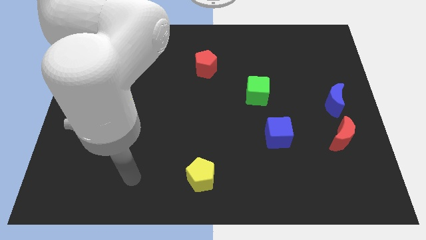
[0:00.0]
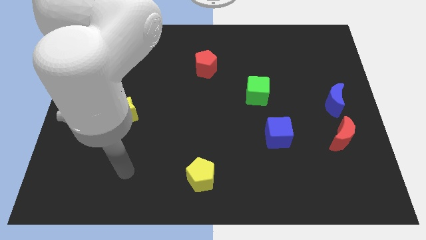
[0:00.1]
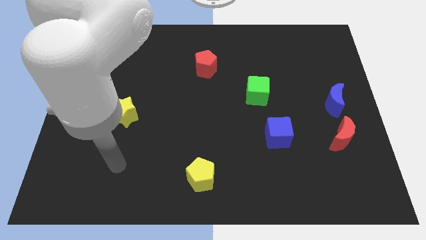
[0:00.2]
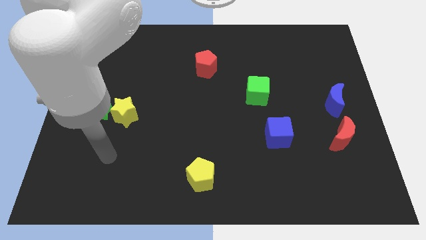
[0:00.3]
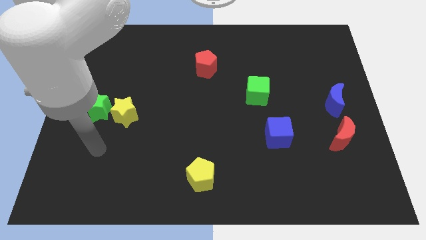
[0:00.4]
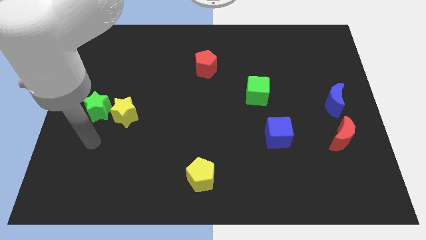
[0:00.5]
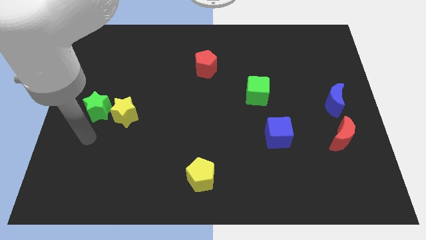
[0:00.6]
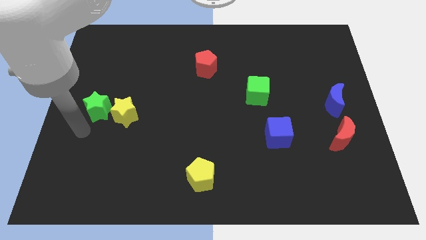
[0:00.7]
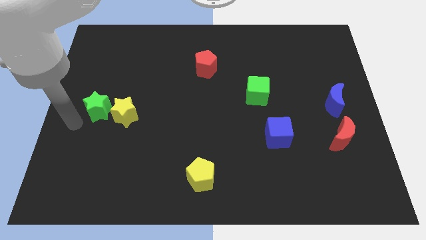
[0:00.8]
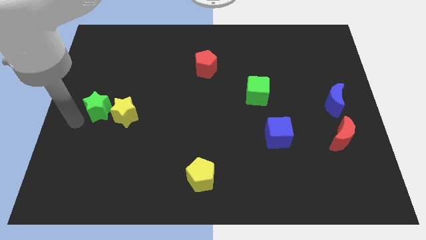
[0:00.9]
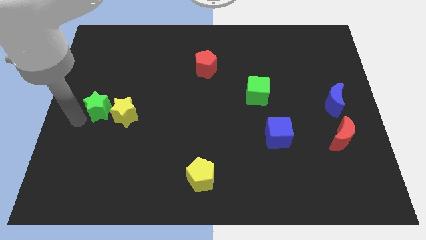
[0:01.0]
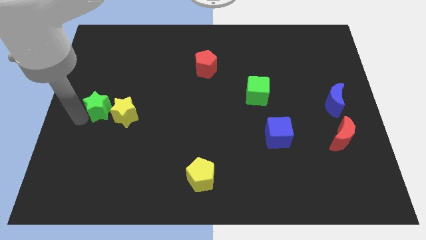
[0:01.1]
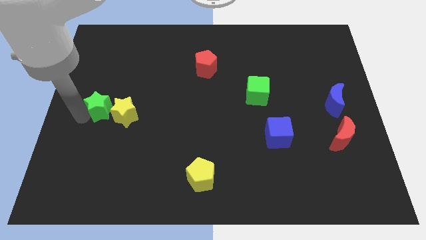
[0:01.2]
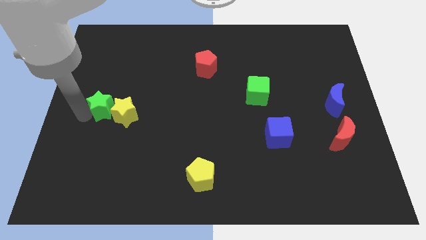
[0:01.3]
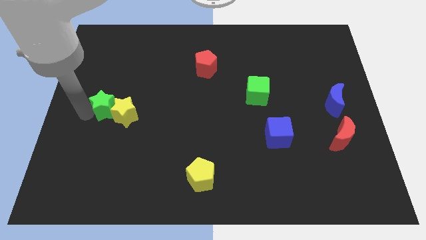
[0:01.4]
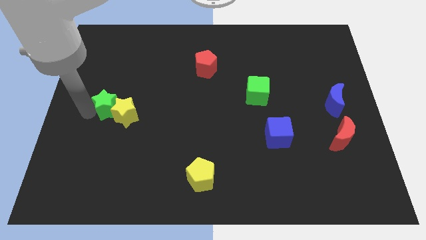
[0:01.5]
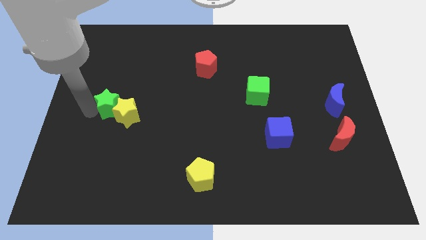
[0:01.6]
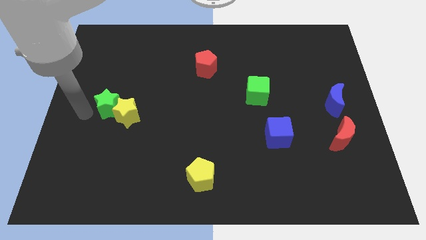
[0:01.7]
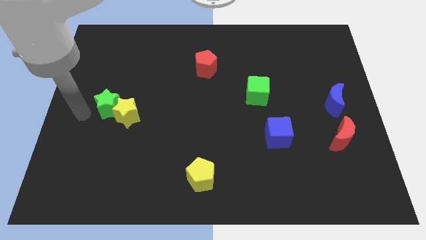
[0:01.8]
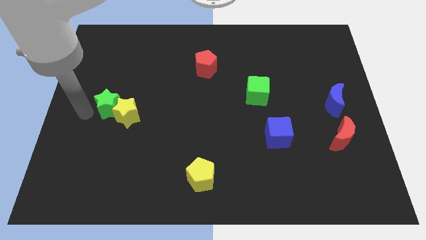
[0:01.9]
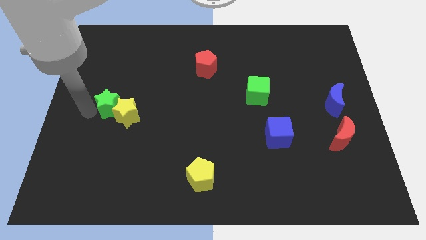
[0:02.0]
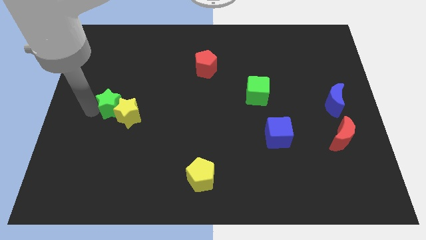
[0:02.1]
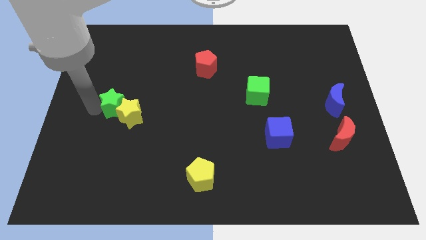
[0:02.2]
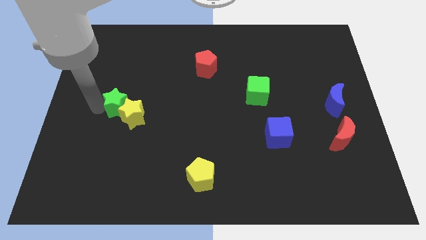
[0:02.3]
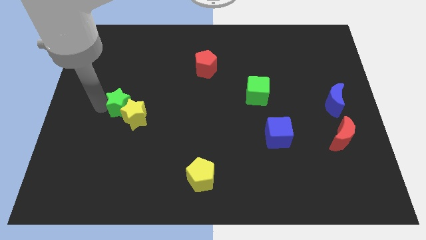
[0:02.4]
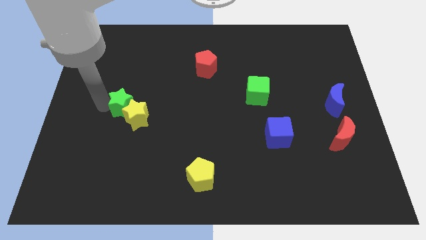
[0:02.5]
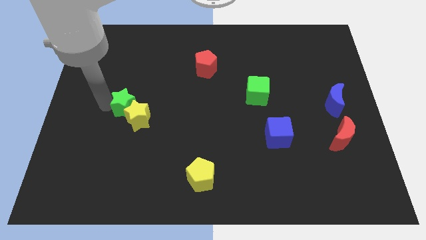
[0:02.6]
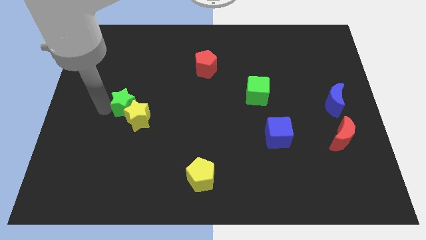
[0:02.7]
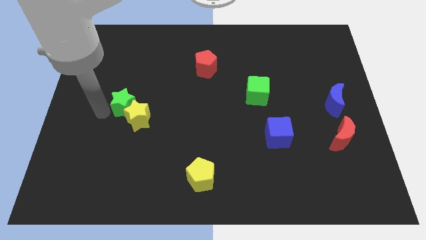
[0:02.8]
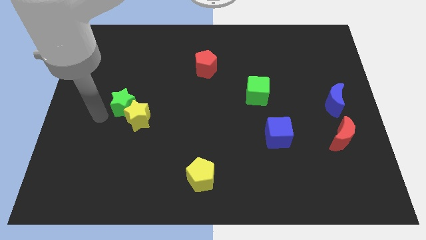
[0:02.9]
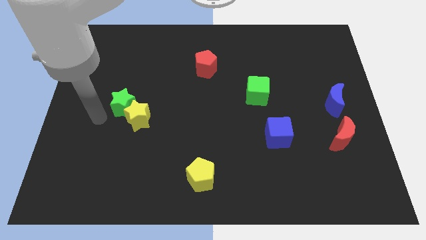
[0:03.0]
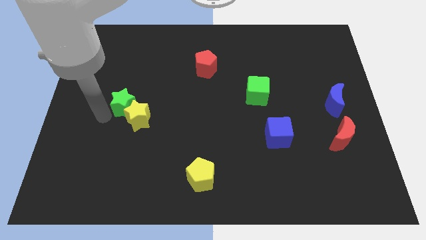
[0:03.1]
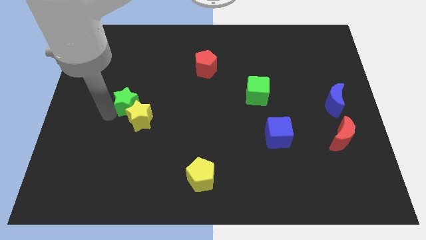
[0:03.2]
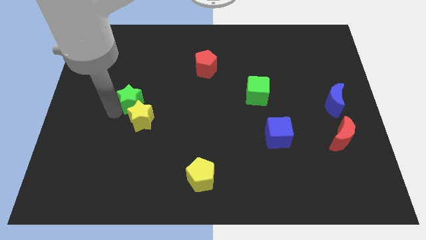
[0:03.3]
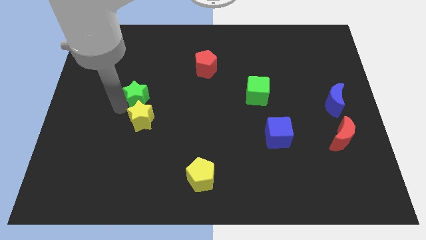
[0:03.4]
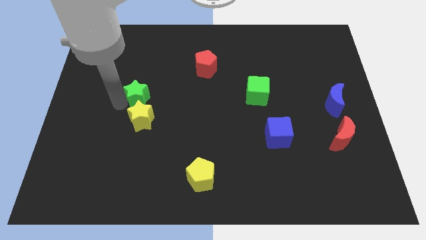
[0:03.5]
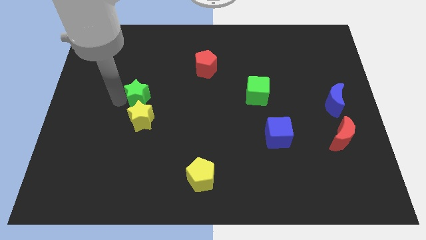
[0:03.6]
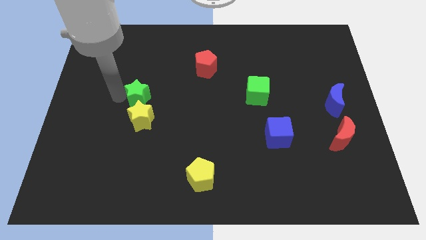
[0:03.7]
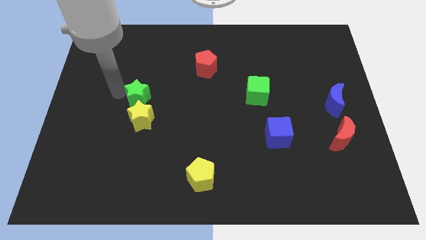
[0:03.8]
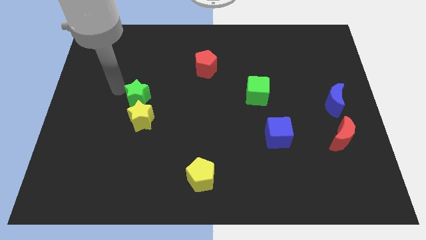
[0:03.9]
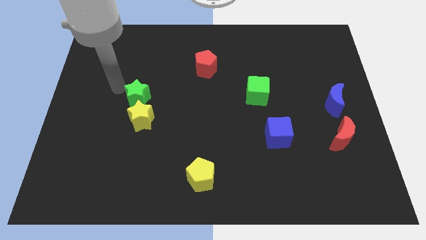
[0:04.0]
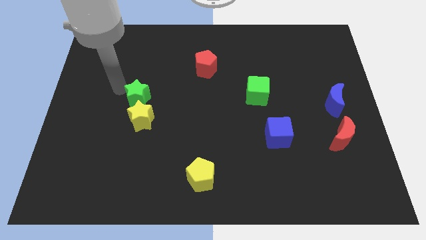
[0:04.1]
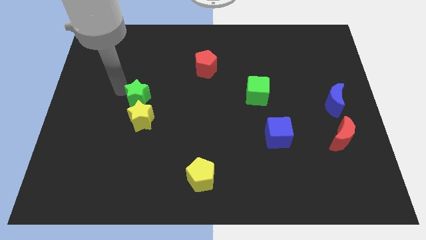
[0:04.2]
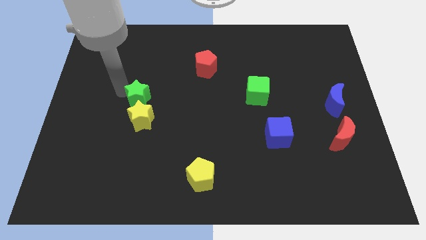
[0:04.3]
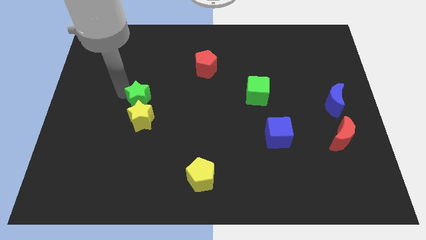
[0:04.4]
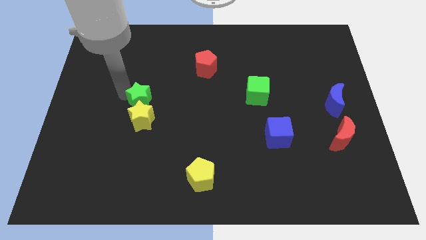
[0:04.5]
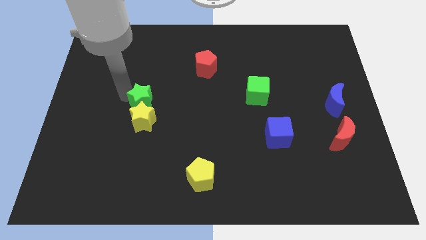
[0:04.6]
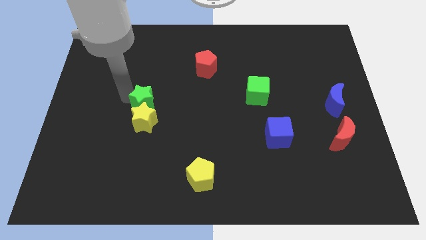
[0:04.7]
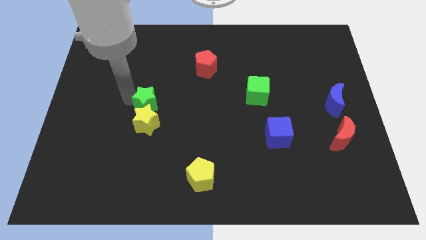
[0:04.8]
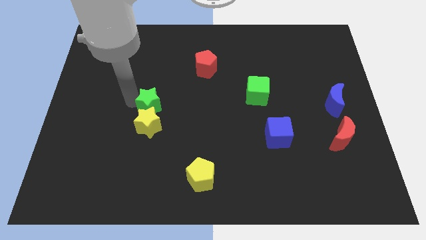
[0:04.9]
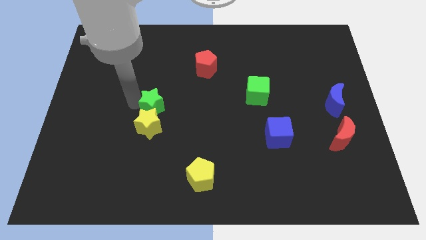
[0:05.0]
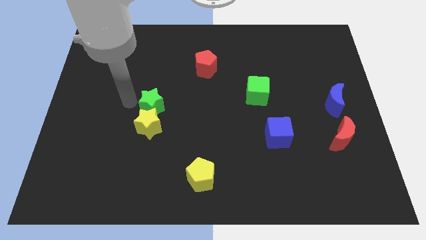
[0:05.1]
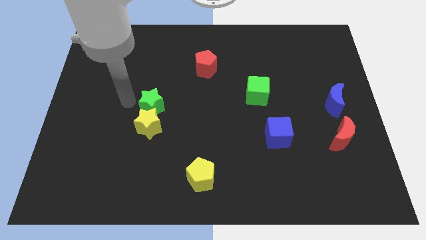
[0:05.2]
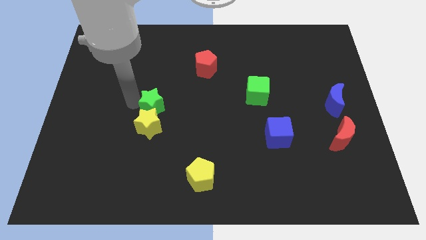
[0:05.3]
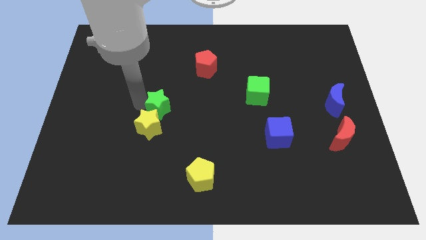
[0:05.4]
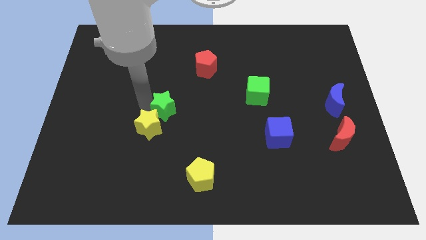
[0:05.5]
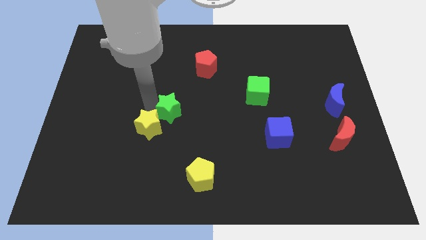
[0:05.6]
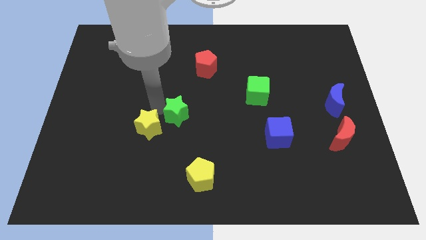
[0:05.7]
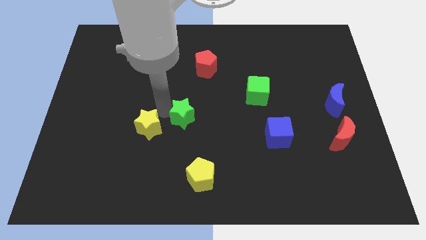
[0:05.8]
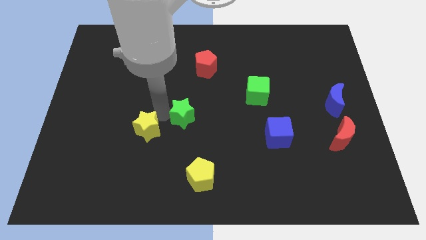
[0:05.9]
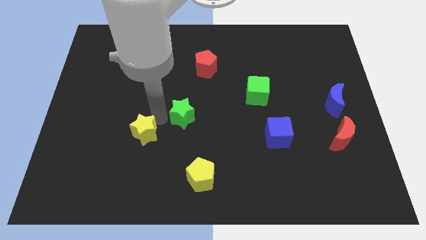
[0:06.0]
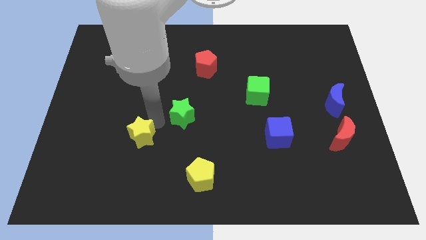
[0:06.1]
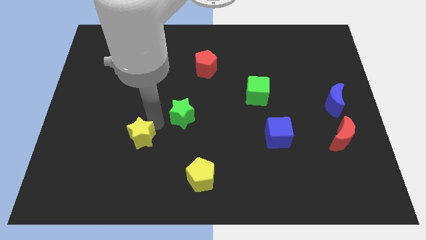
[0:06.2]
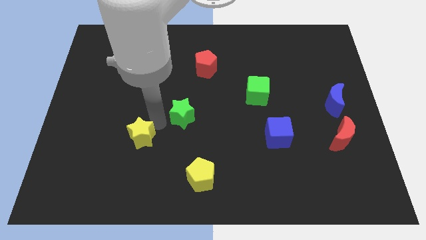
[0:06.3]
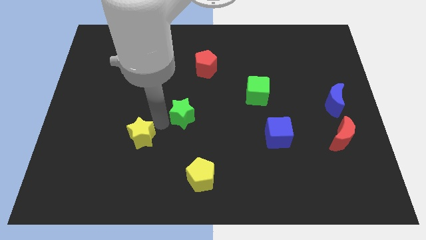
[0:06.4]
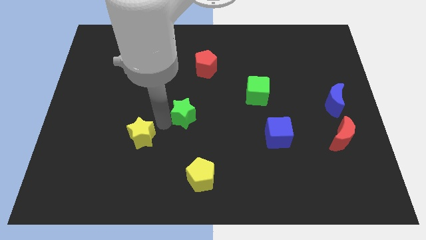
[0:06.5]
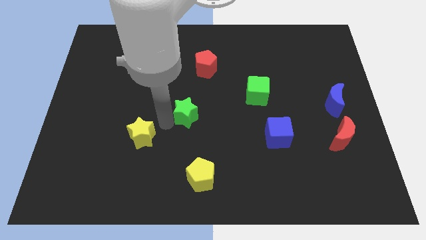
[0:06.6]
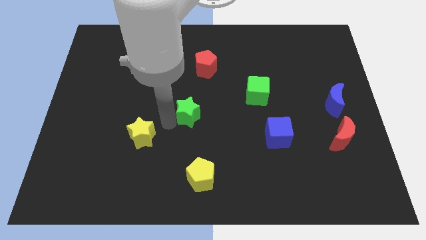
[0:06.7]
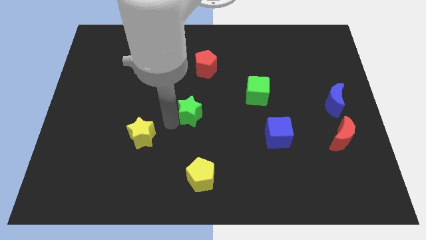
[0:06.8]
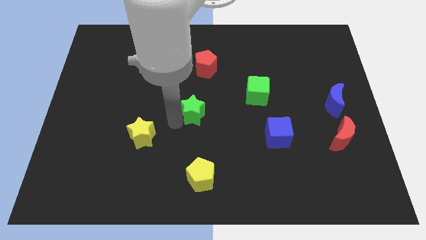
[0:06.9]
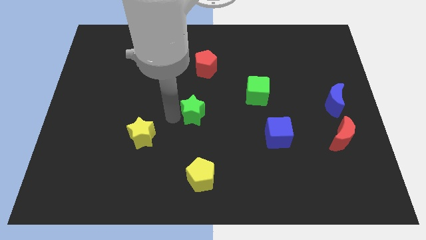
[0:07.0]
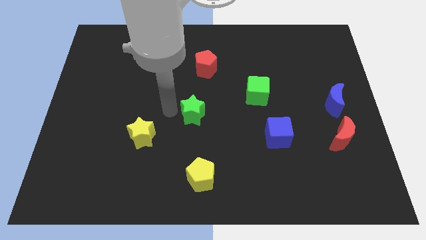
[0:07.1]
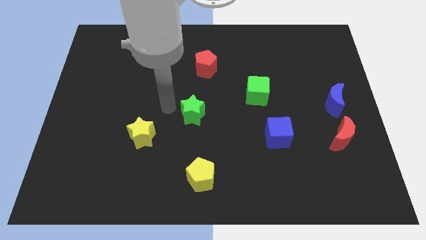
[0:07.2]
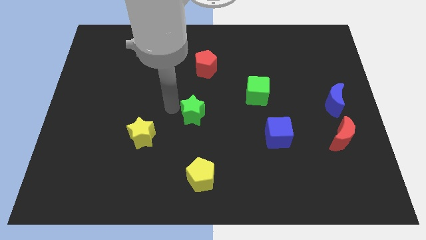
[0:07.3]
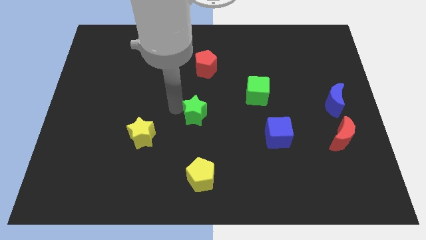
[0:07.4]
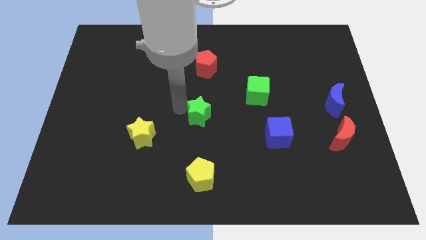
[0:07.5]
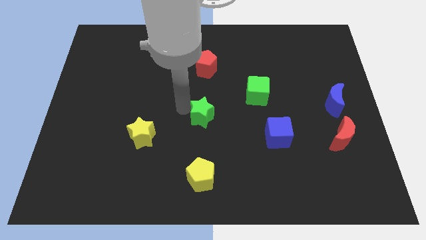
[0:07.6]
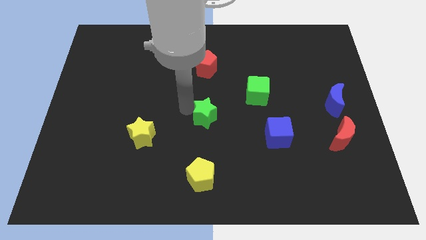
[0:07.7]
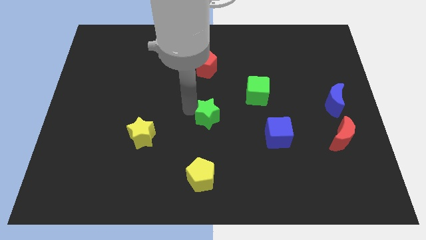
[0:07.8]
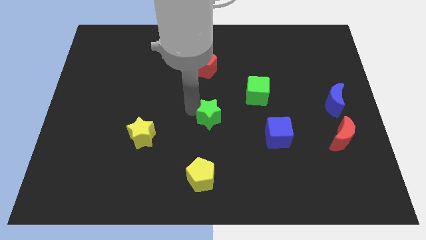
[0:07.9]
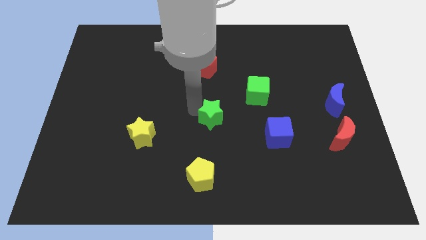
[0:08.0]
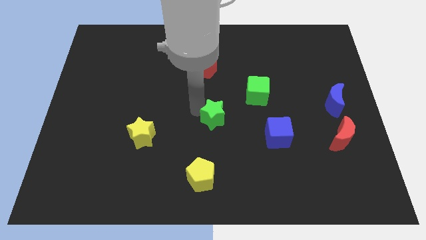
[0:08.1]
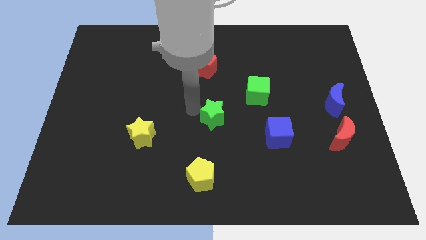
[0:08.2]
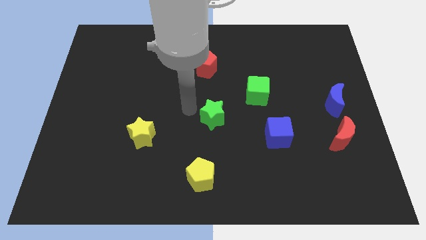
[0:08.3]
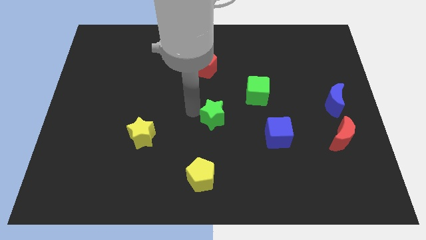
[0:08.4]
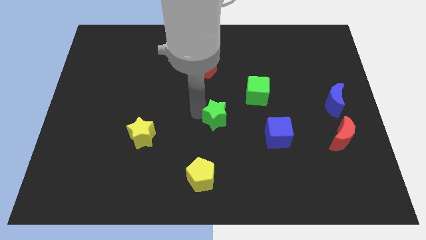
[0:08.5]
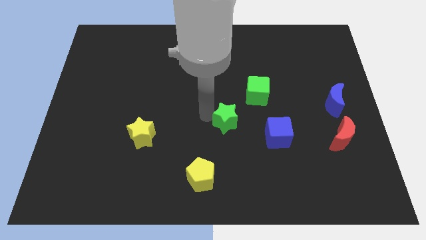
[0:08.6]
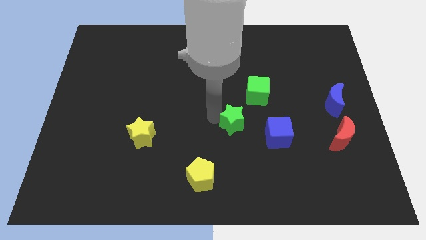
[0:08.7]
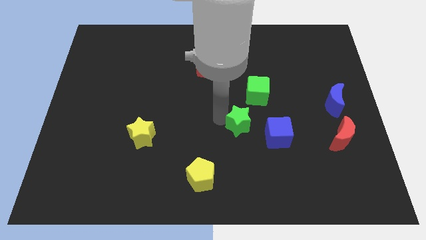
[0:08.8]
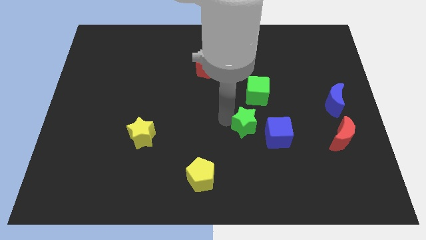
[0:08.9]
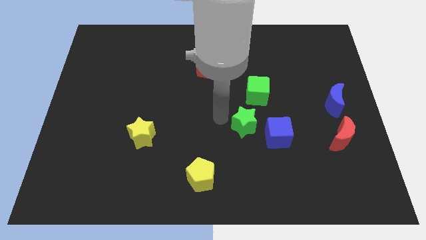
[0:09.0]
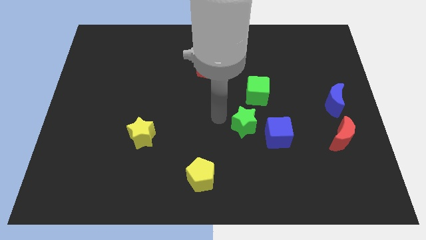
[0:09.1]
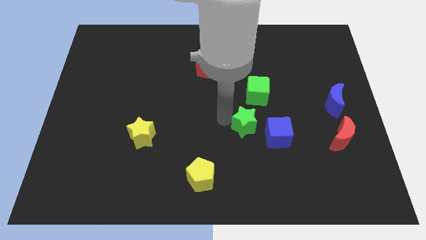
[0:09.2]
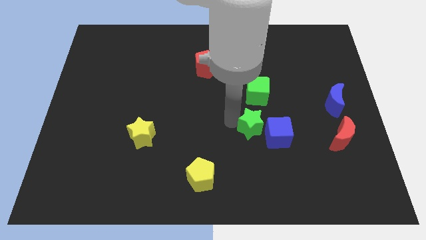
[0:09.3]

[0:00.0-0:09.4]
move the green star close to the blue cube
